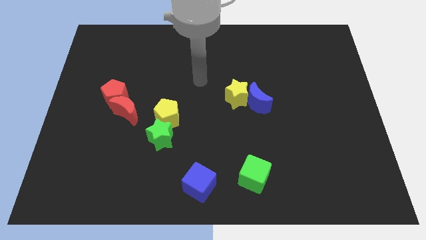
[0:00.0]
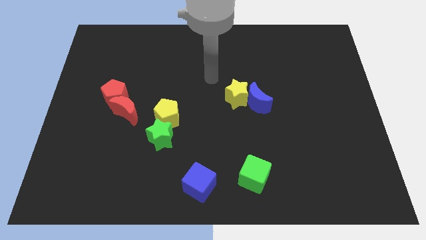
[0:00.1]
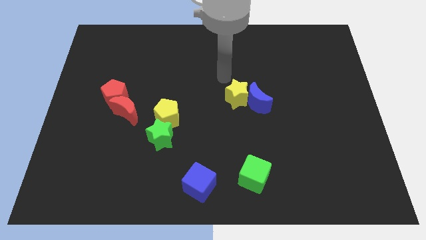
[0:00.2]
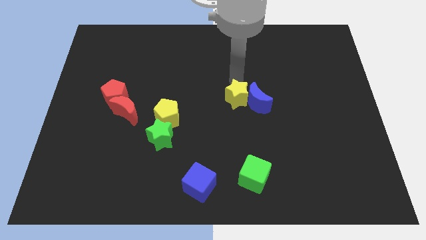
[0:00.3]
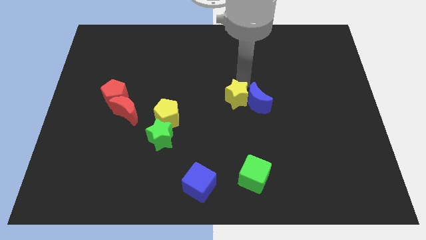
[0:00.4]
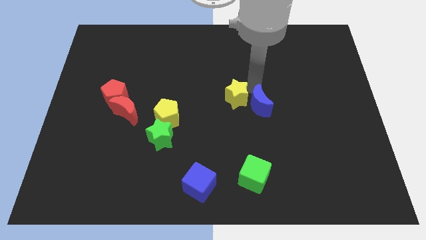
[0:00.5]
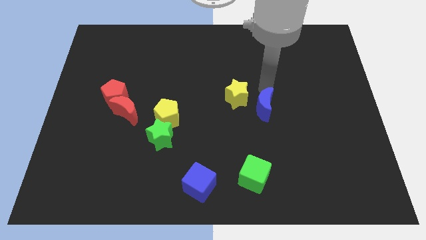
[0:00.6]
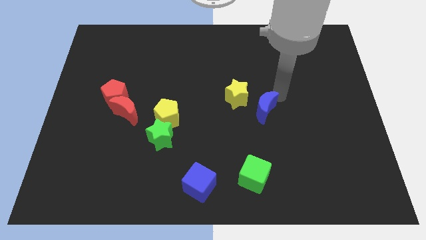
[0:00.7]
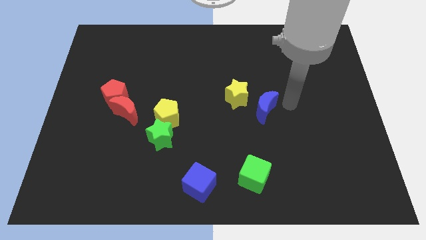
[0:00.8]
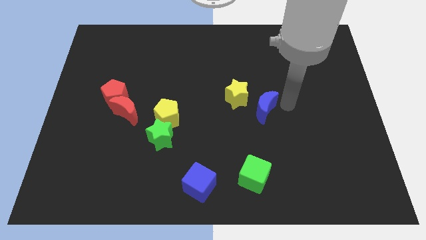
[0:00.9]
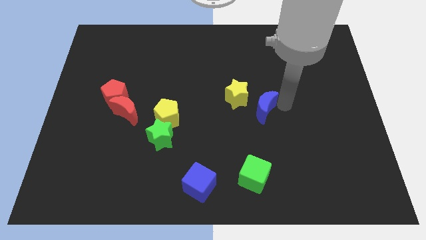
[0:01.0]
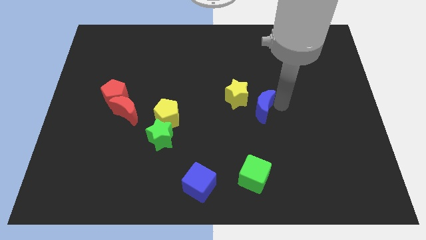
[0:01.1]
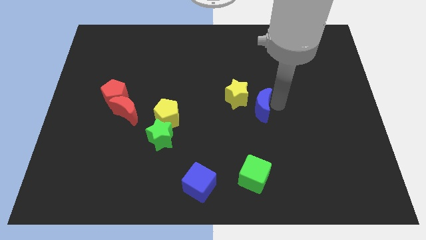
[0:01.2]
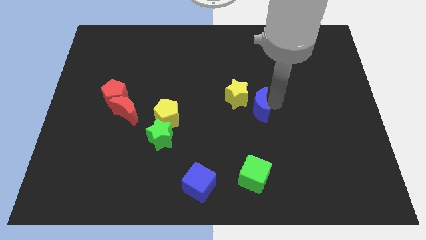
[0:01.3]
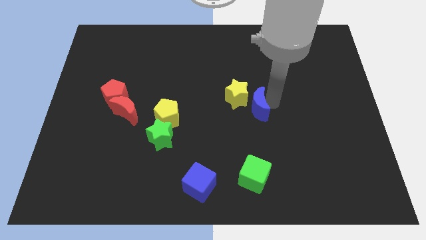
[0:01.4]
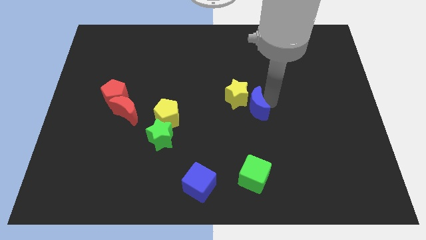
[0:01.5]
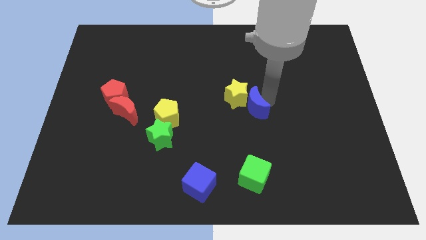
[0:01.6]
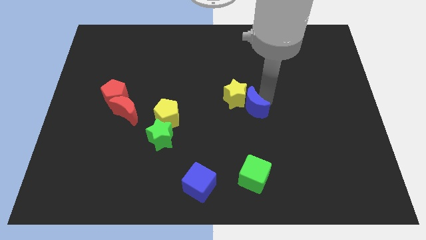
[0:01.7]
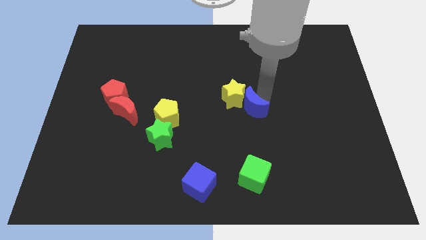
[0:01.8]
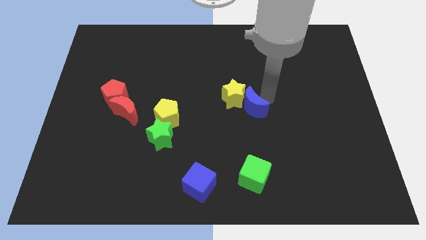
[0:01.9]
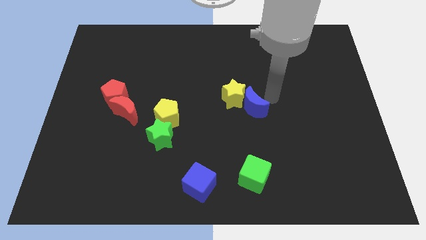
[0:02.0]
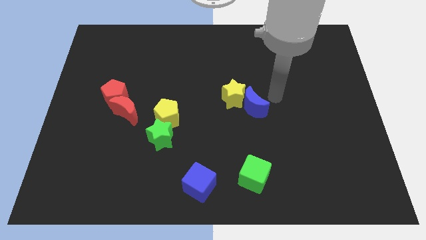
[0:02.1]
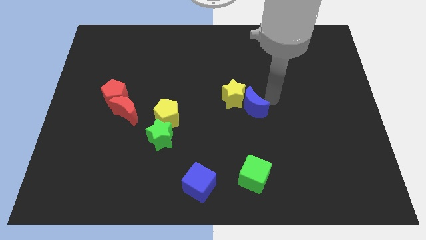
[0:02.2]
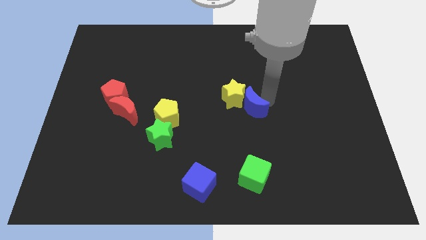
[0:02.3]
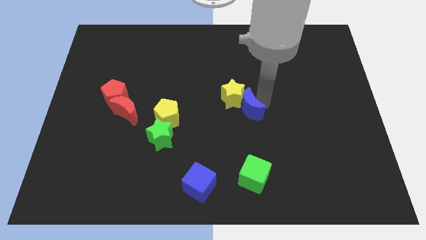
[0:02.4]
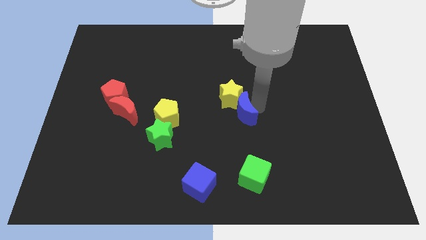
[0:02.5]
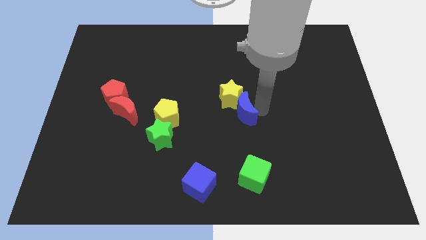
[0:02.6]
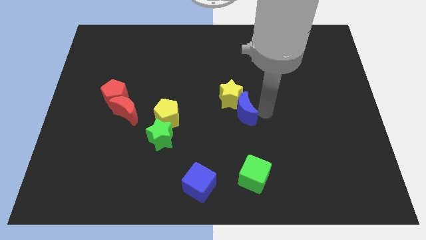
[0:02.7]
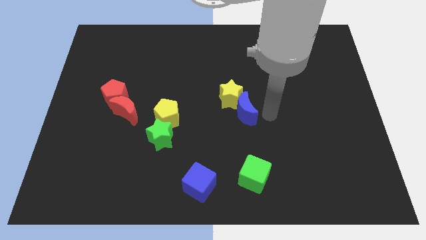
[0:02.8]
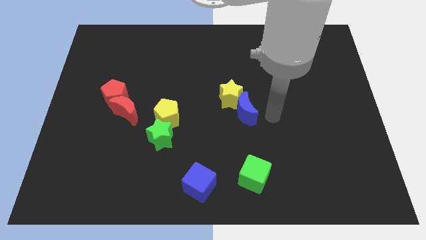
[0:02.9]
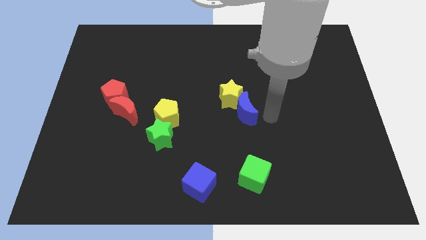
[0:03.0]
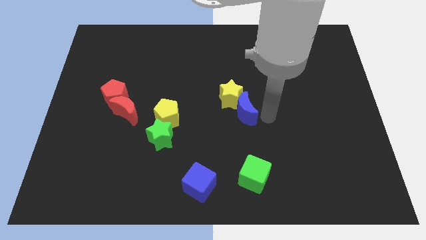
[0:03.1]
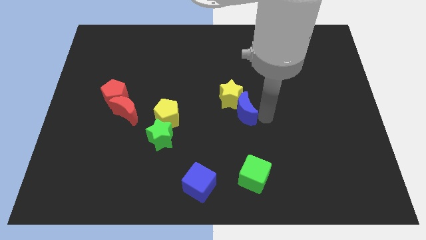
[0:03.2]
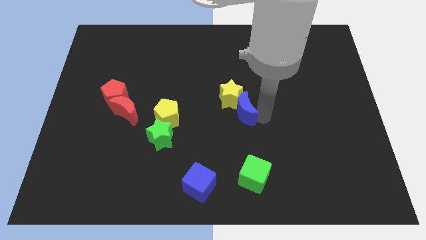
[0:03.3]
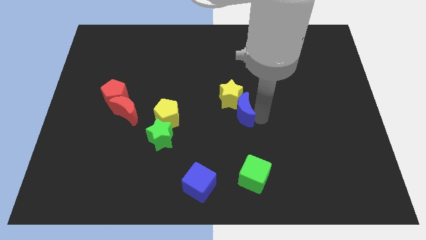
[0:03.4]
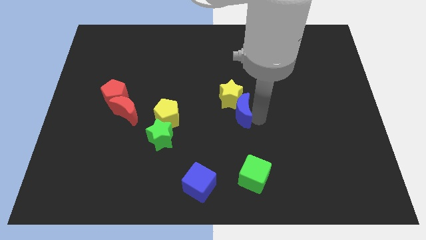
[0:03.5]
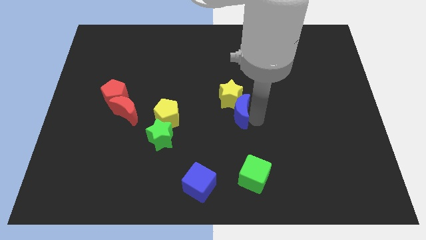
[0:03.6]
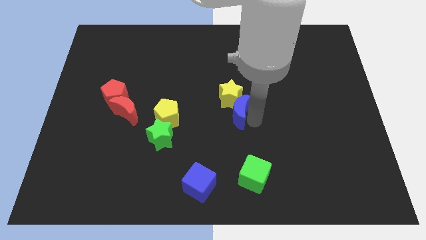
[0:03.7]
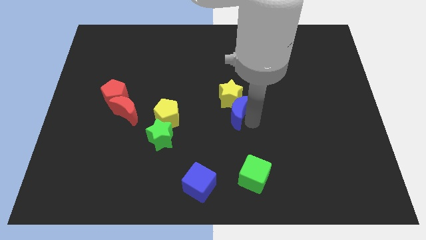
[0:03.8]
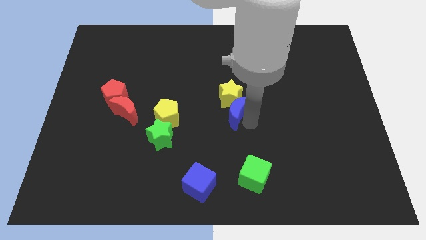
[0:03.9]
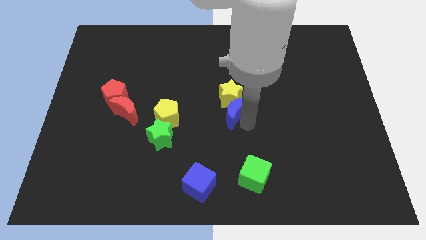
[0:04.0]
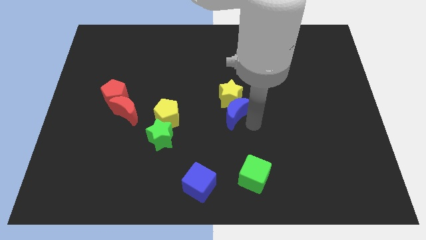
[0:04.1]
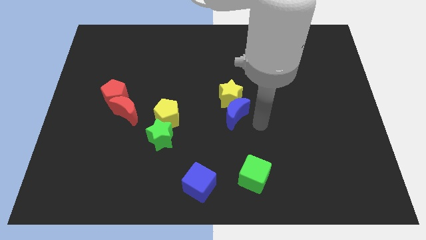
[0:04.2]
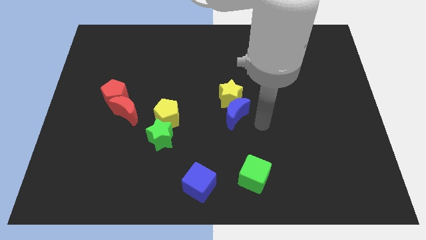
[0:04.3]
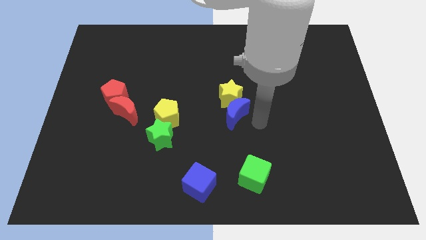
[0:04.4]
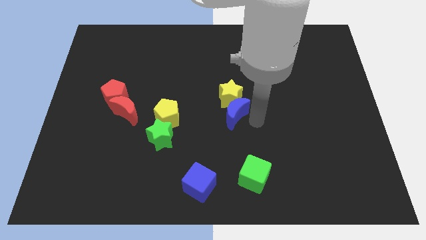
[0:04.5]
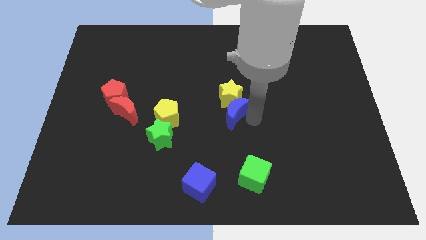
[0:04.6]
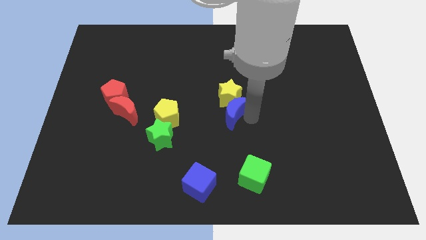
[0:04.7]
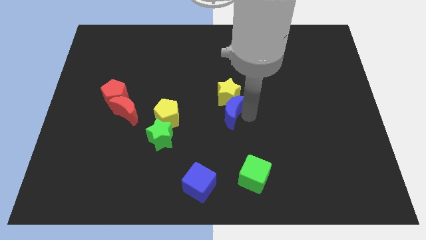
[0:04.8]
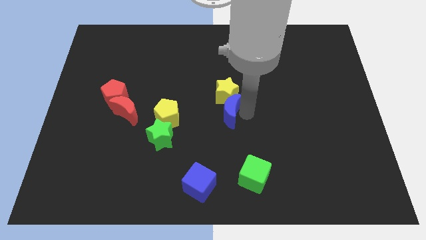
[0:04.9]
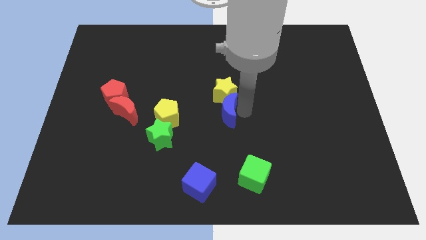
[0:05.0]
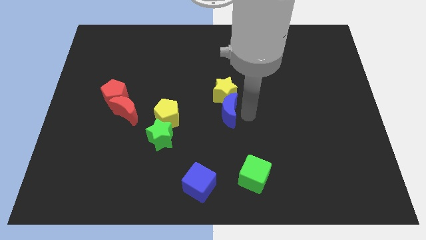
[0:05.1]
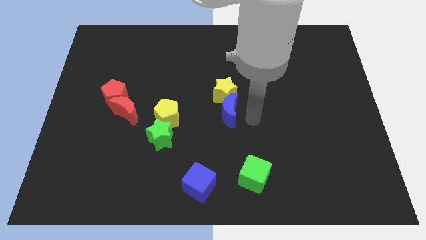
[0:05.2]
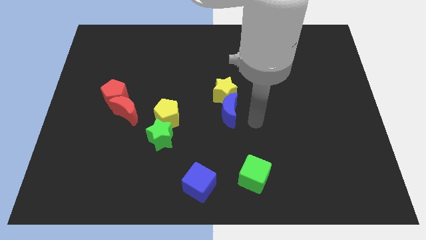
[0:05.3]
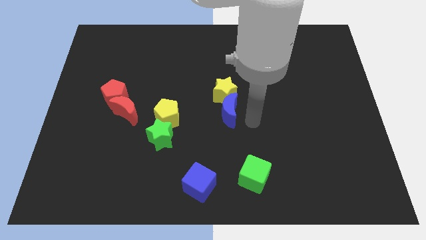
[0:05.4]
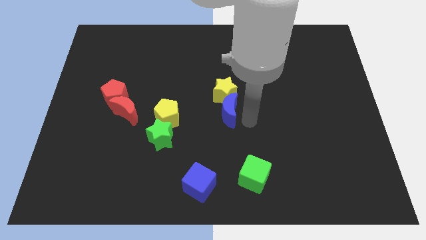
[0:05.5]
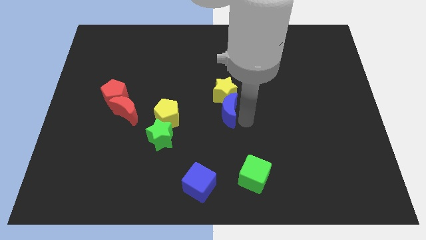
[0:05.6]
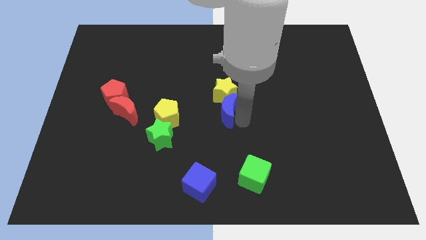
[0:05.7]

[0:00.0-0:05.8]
push the blue moon slightly left

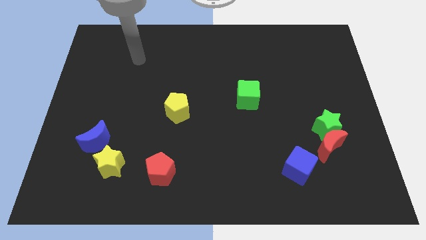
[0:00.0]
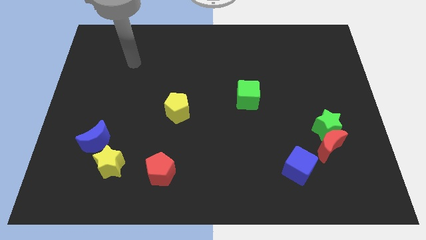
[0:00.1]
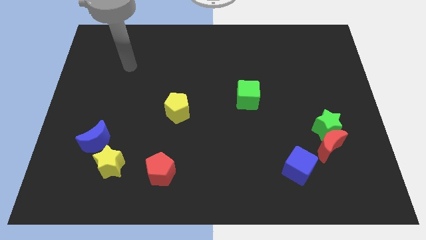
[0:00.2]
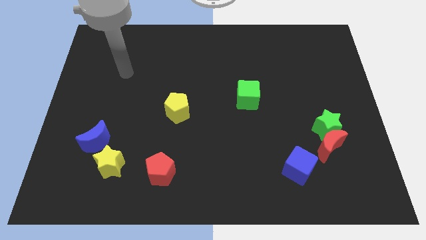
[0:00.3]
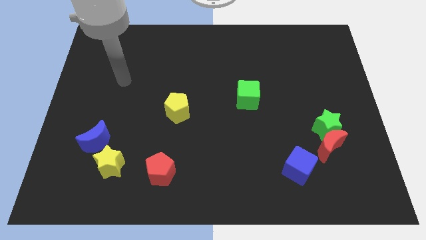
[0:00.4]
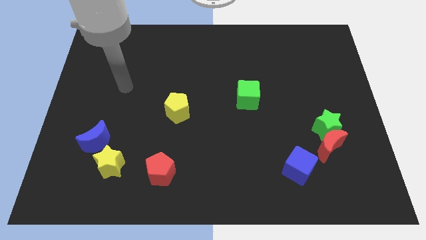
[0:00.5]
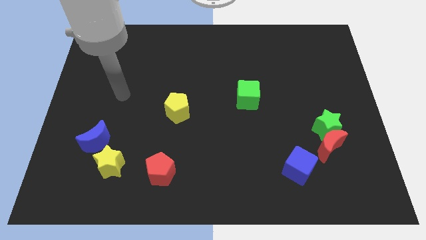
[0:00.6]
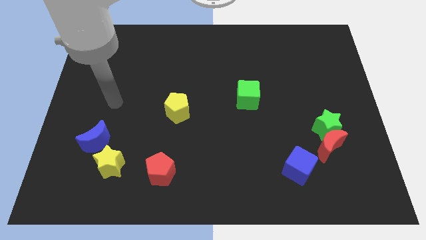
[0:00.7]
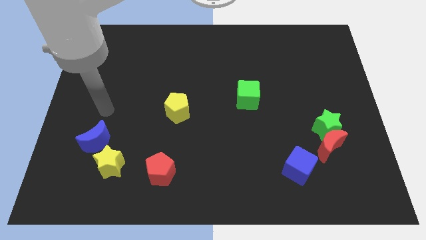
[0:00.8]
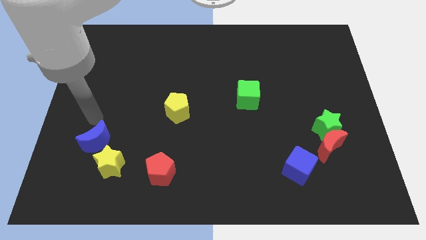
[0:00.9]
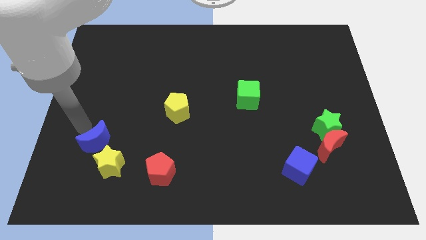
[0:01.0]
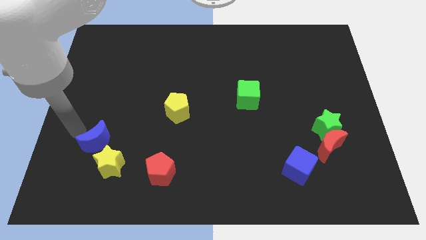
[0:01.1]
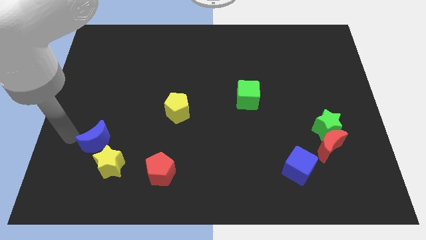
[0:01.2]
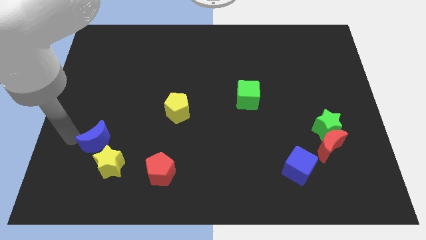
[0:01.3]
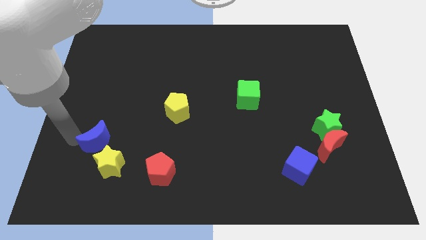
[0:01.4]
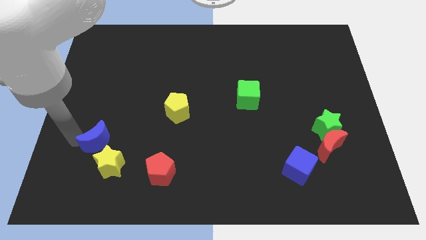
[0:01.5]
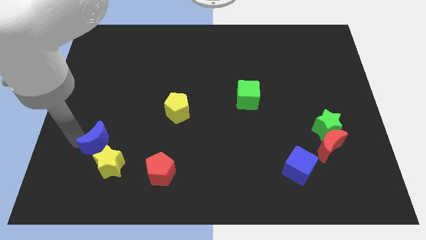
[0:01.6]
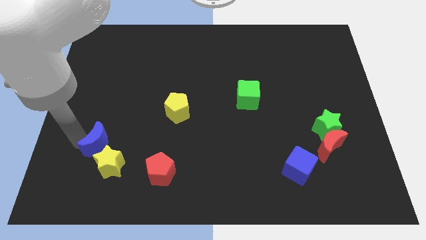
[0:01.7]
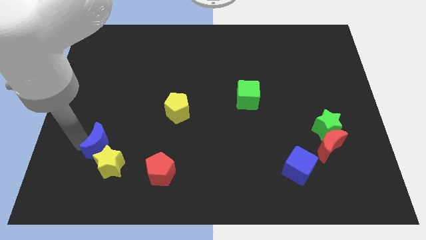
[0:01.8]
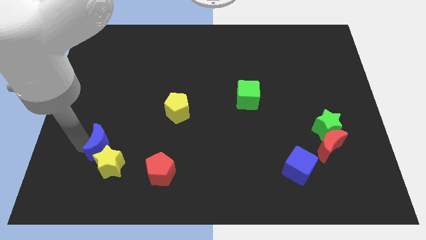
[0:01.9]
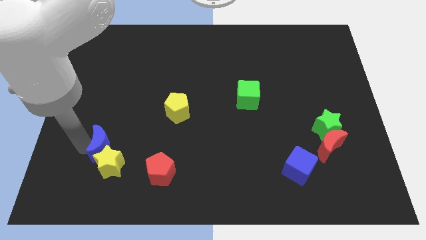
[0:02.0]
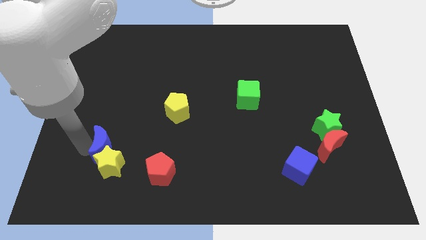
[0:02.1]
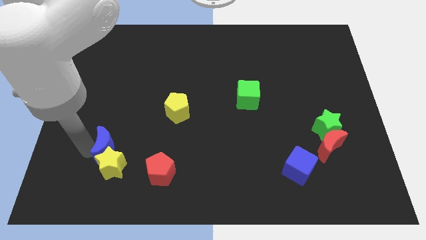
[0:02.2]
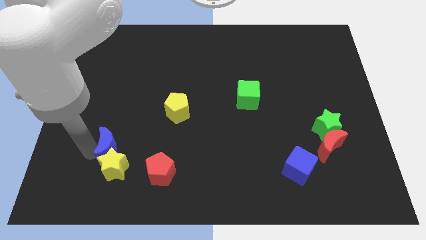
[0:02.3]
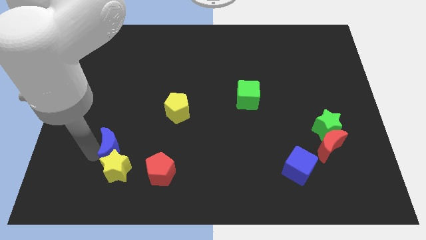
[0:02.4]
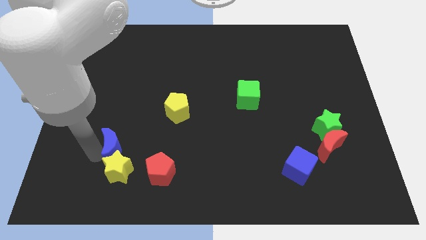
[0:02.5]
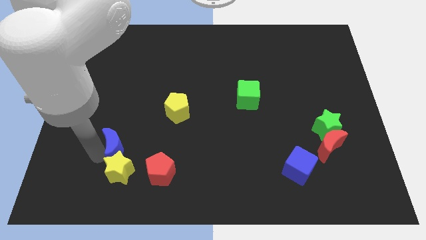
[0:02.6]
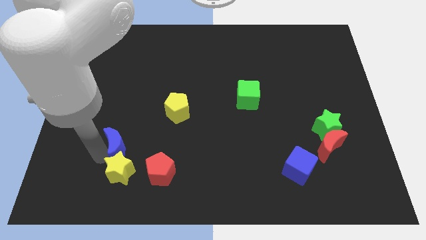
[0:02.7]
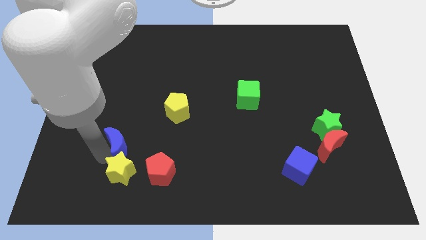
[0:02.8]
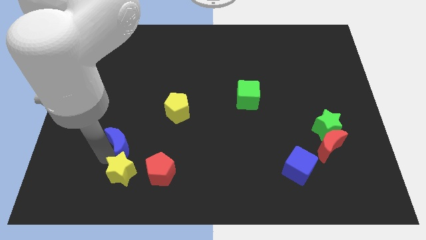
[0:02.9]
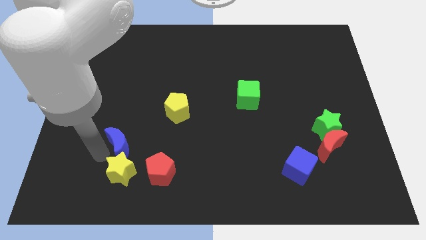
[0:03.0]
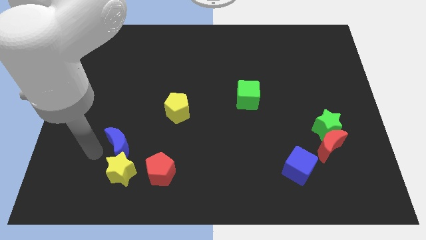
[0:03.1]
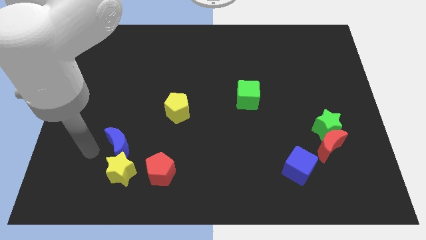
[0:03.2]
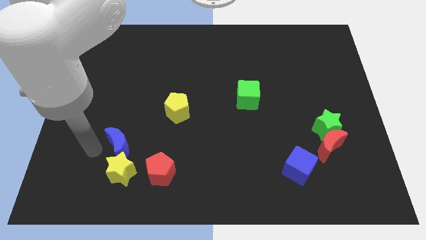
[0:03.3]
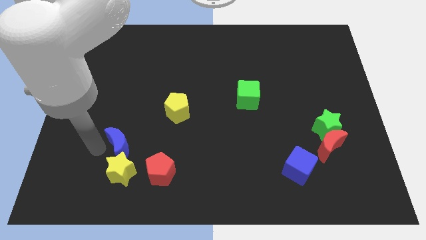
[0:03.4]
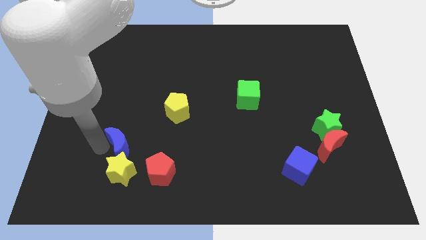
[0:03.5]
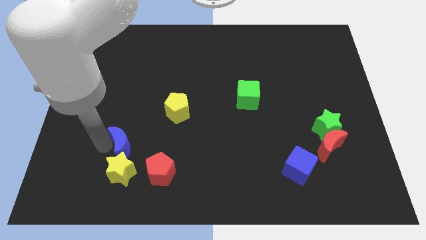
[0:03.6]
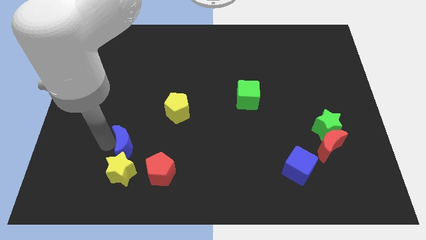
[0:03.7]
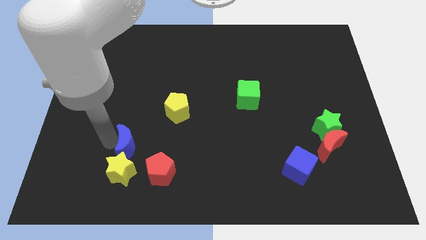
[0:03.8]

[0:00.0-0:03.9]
slide the blue moon a little bit to the right
